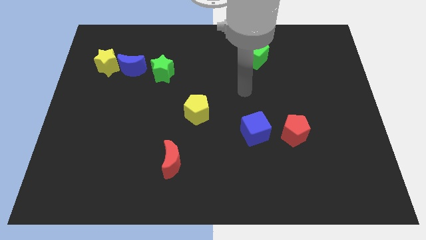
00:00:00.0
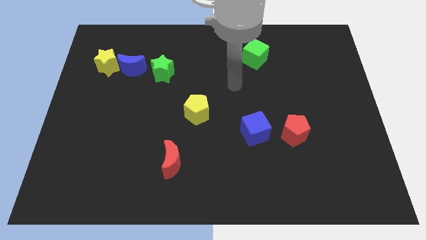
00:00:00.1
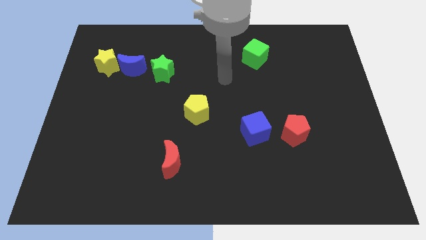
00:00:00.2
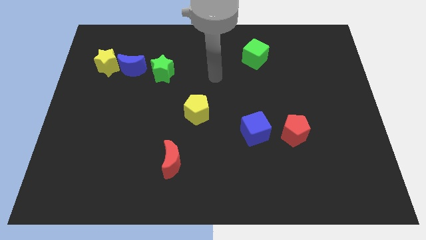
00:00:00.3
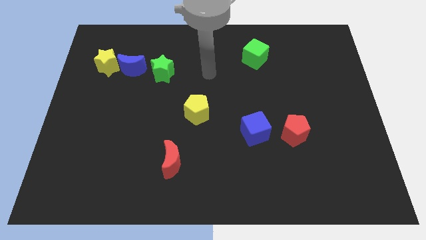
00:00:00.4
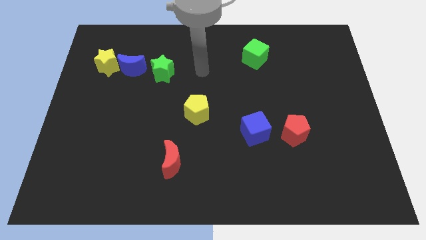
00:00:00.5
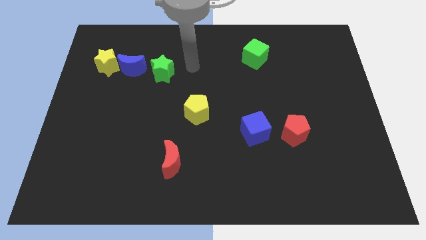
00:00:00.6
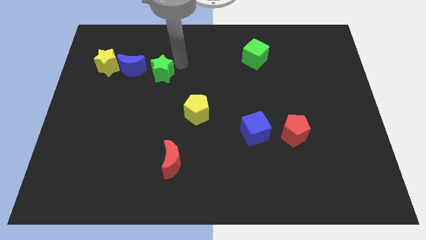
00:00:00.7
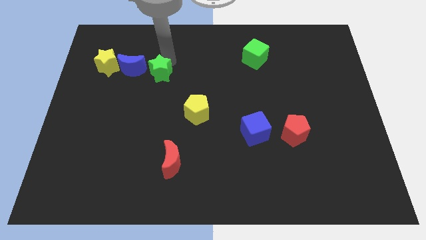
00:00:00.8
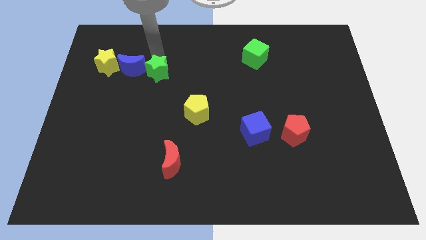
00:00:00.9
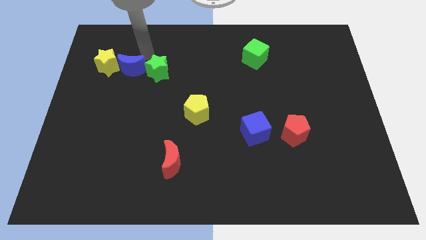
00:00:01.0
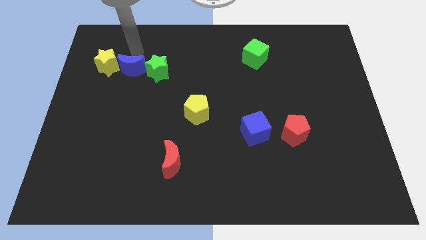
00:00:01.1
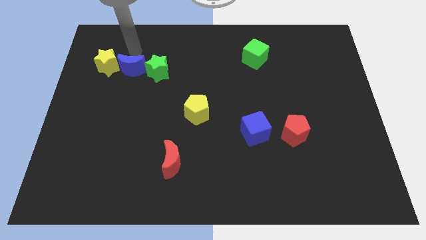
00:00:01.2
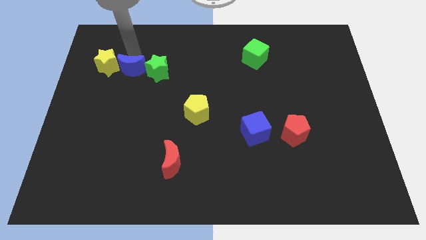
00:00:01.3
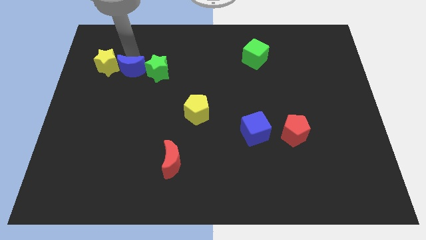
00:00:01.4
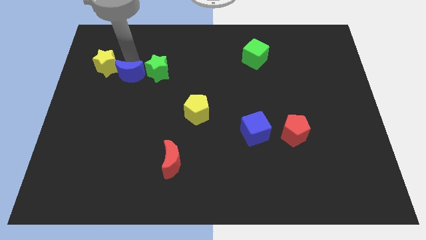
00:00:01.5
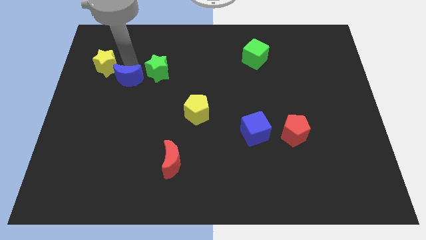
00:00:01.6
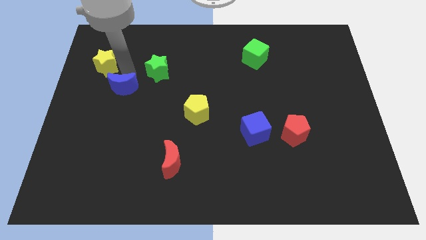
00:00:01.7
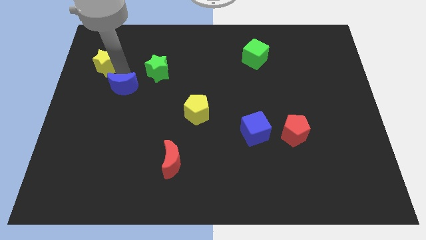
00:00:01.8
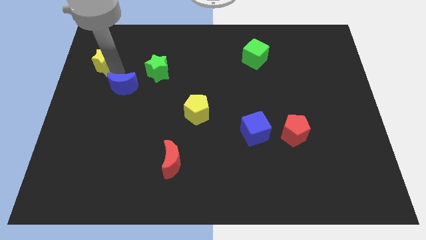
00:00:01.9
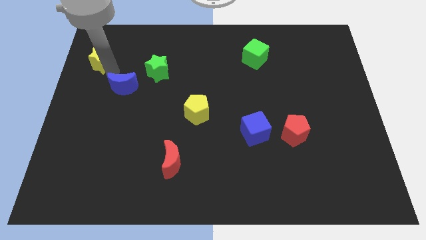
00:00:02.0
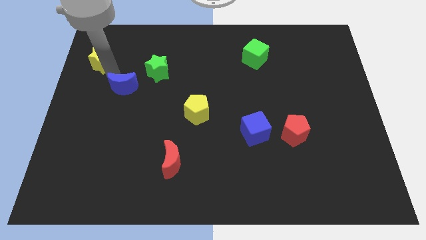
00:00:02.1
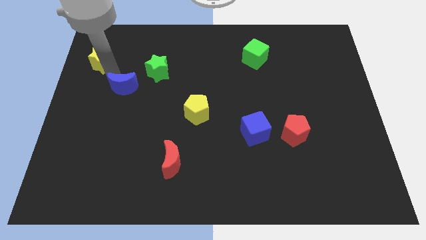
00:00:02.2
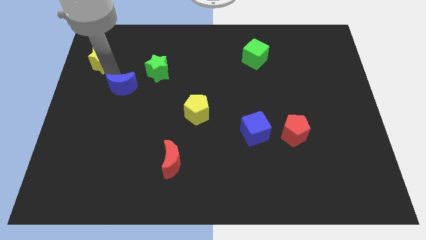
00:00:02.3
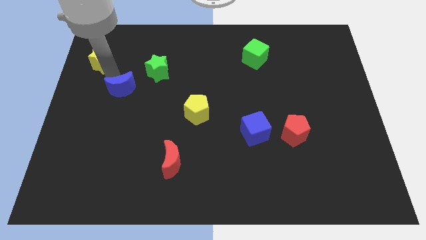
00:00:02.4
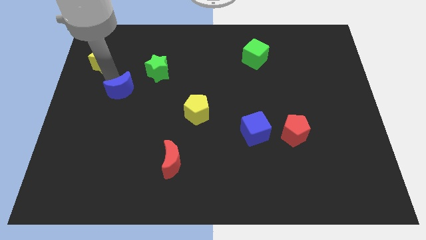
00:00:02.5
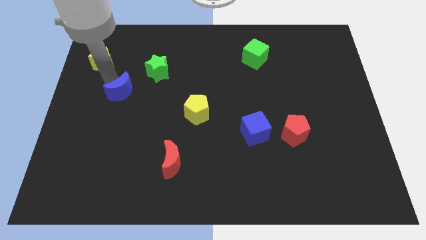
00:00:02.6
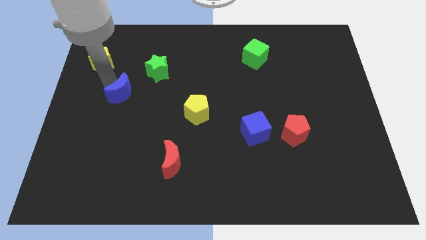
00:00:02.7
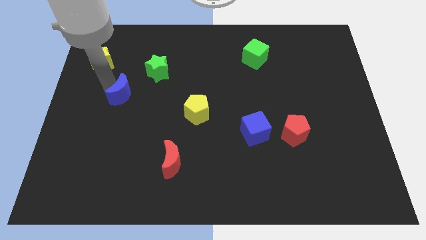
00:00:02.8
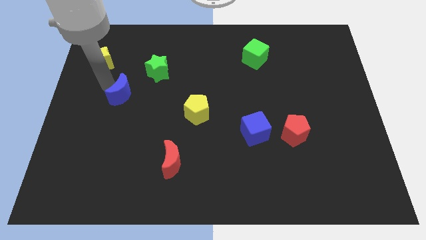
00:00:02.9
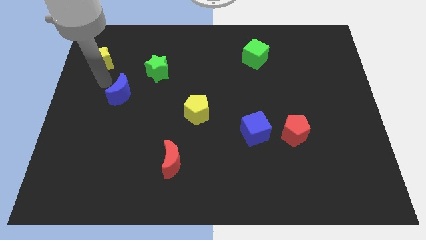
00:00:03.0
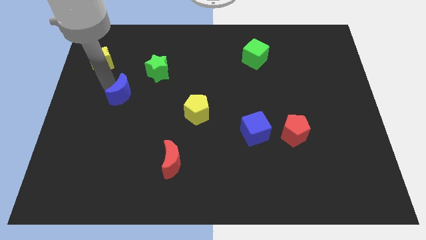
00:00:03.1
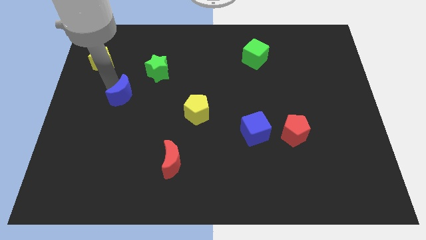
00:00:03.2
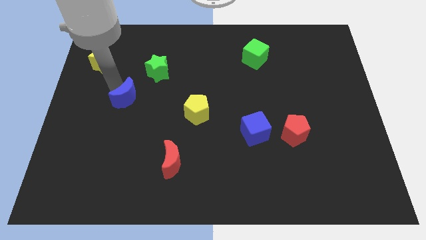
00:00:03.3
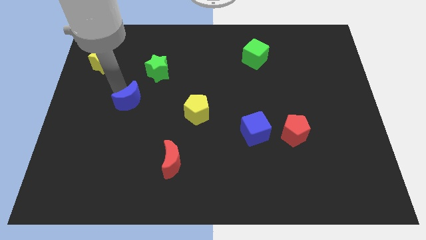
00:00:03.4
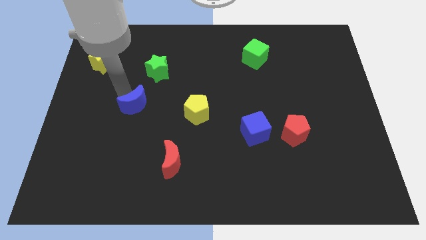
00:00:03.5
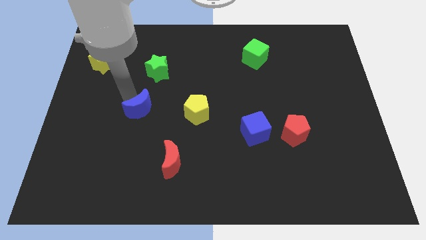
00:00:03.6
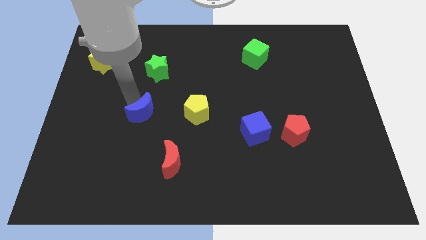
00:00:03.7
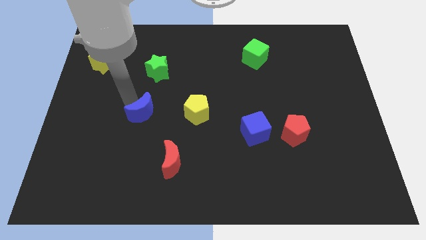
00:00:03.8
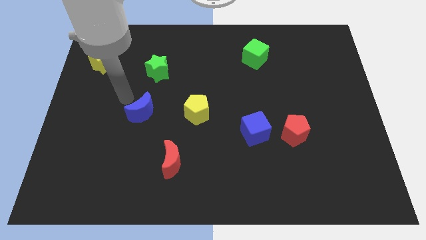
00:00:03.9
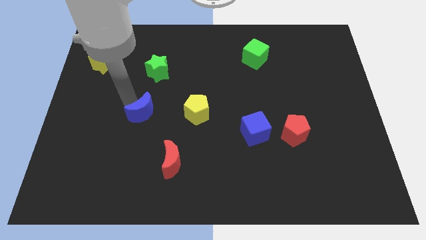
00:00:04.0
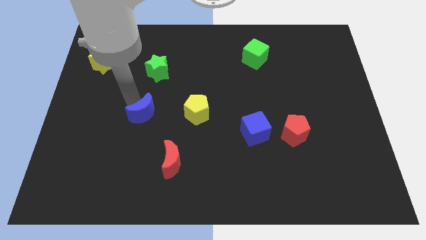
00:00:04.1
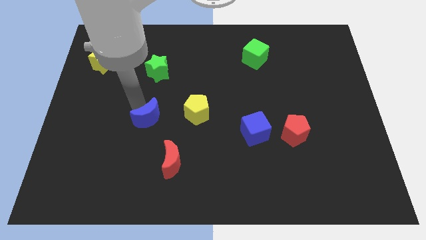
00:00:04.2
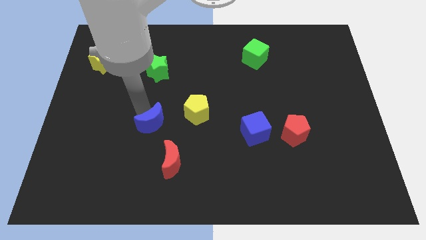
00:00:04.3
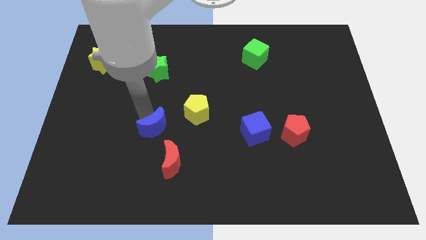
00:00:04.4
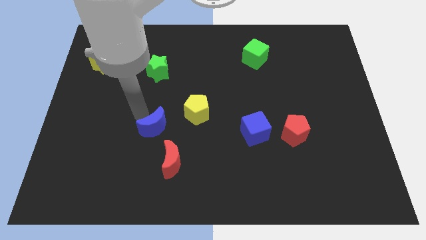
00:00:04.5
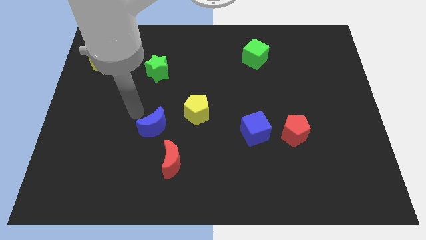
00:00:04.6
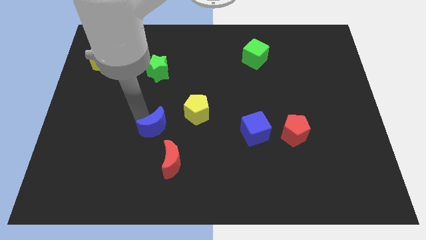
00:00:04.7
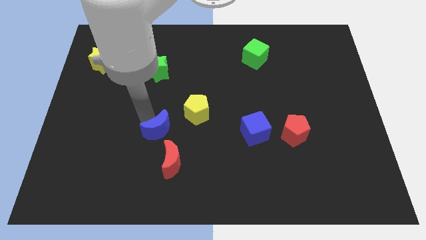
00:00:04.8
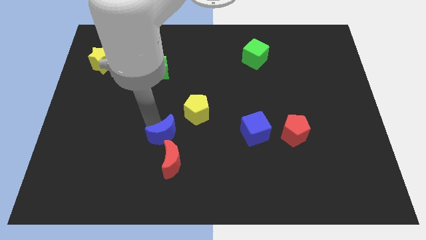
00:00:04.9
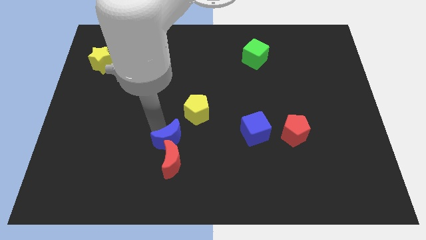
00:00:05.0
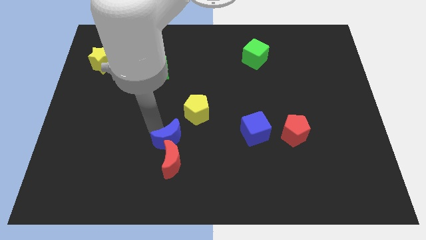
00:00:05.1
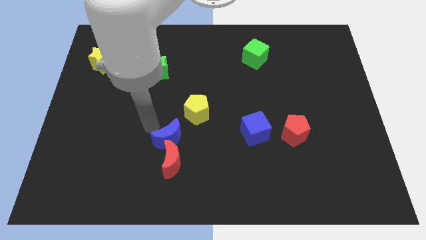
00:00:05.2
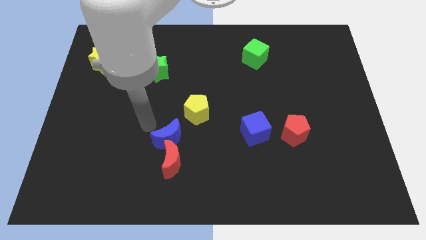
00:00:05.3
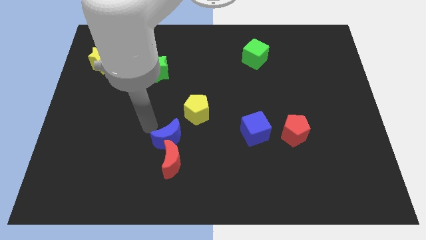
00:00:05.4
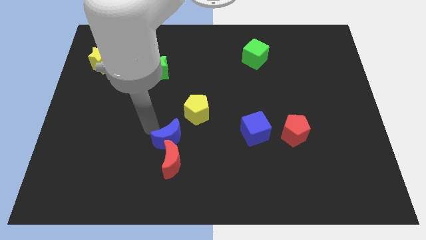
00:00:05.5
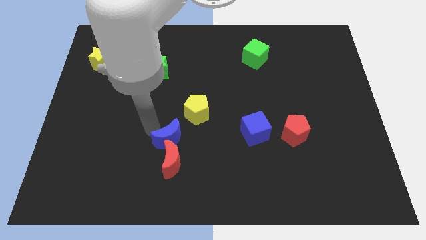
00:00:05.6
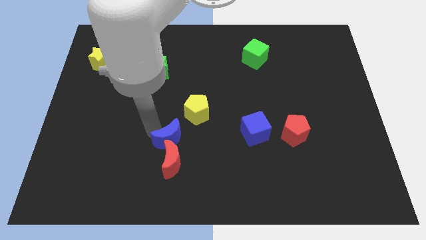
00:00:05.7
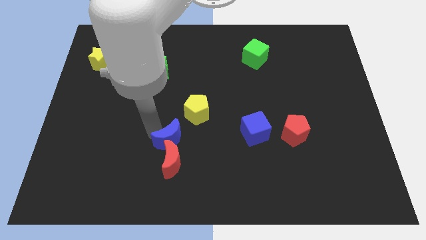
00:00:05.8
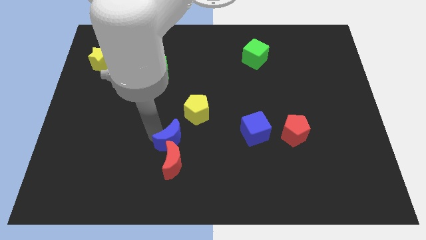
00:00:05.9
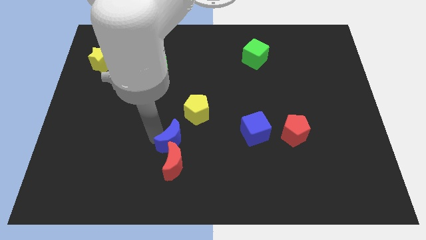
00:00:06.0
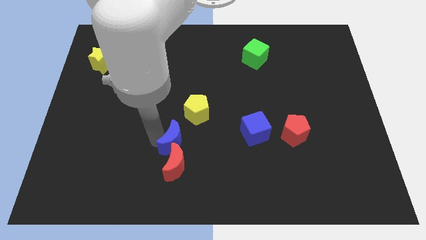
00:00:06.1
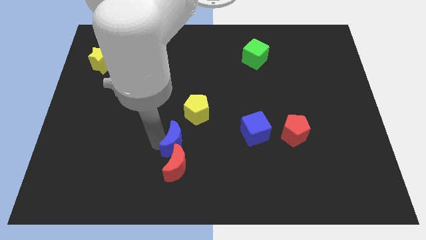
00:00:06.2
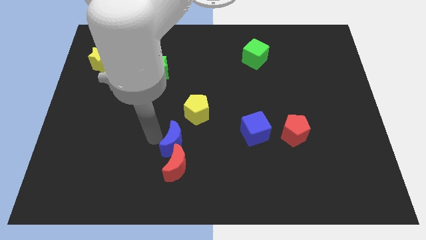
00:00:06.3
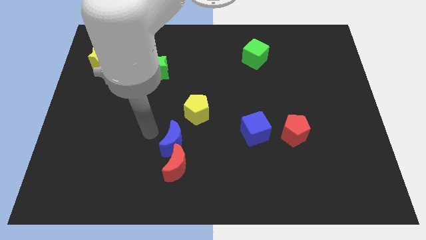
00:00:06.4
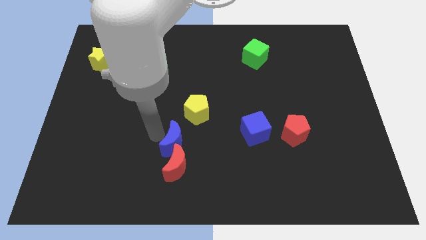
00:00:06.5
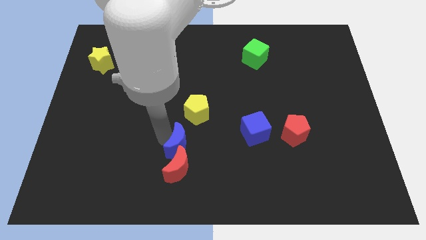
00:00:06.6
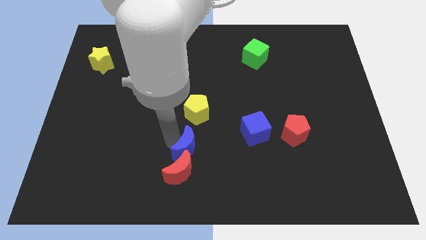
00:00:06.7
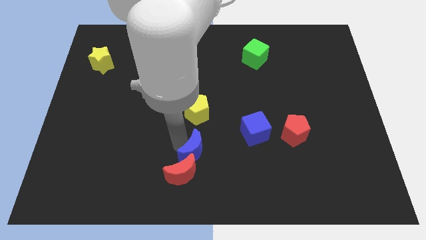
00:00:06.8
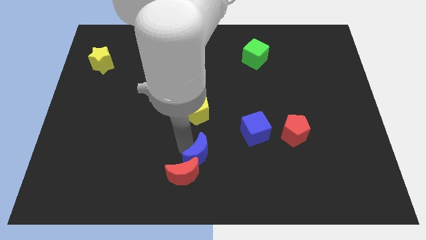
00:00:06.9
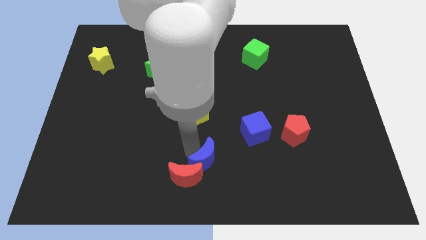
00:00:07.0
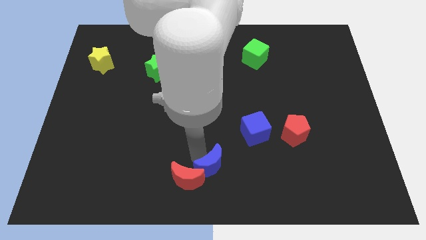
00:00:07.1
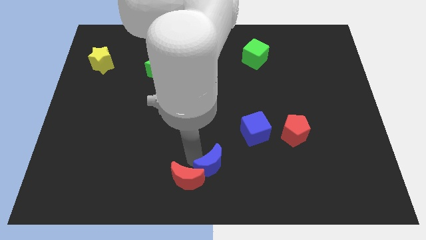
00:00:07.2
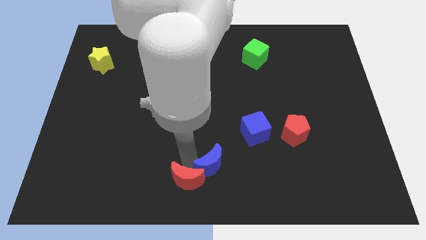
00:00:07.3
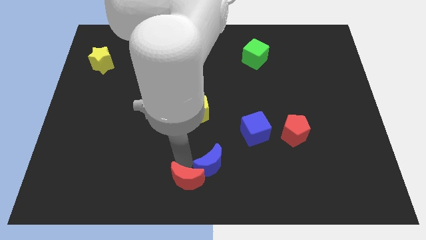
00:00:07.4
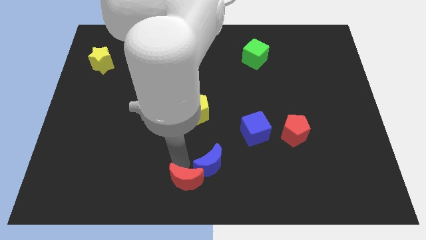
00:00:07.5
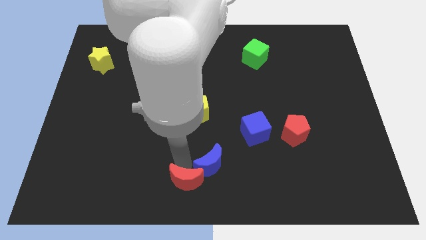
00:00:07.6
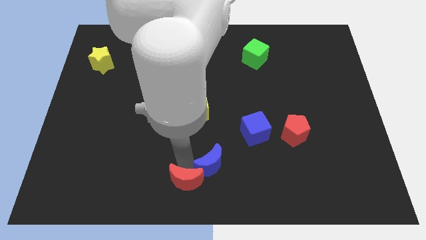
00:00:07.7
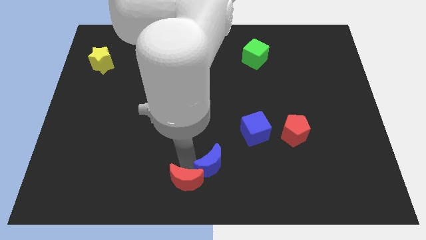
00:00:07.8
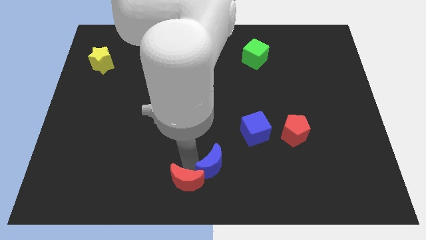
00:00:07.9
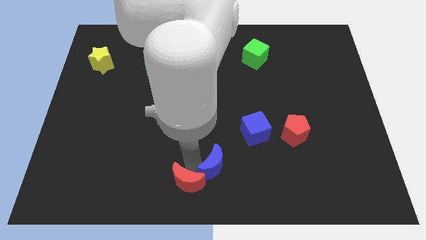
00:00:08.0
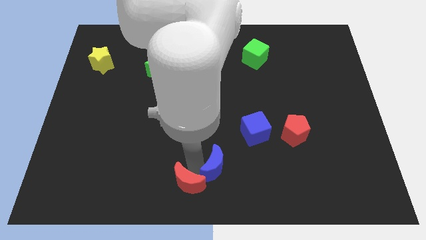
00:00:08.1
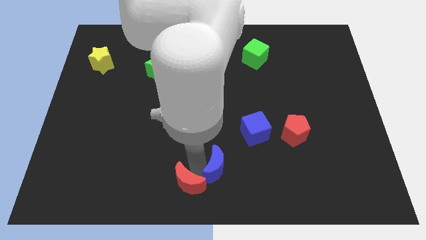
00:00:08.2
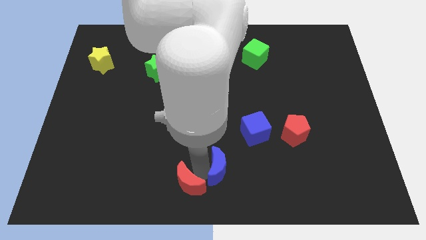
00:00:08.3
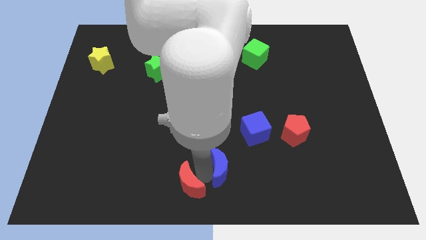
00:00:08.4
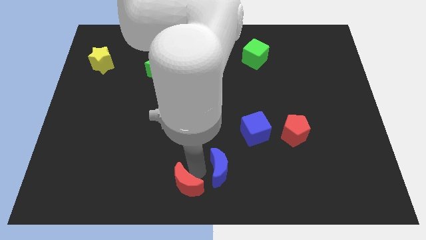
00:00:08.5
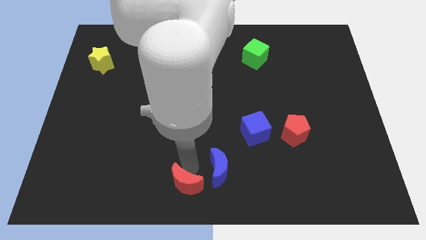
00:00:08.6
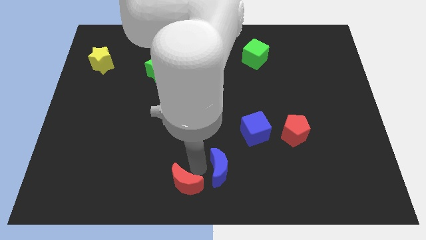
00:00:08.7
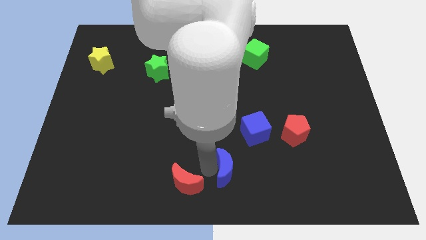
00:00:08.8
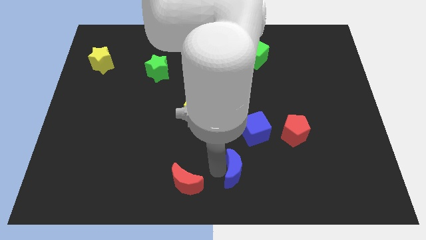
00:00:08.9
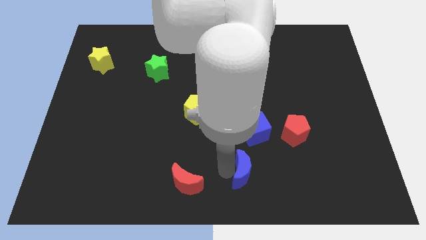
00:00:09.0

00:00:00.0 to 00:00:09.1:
move the blue moon to the bottom side of the blue cube
